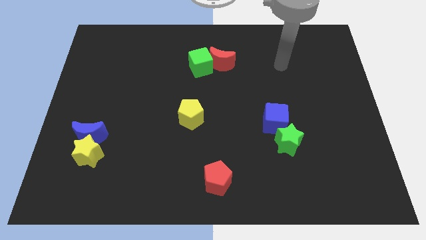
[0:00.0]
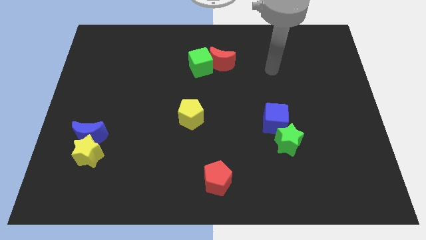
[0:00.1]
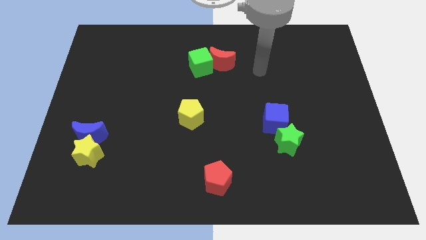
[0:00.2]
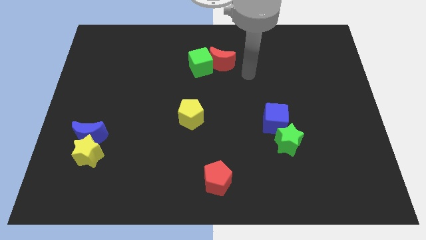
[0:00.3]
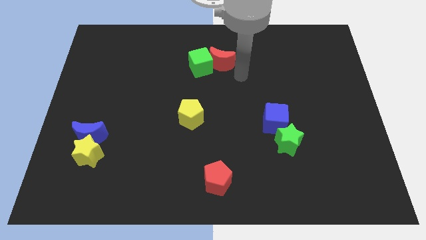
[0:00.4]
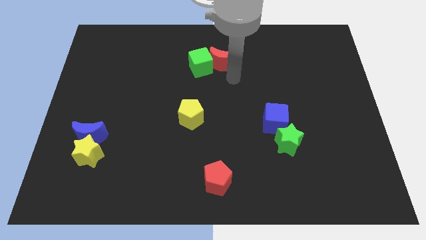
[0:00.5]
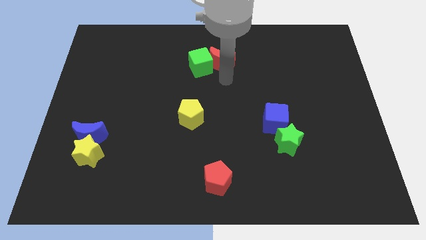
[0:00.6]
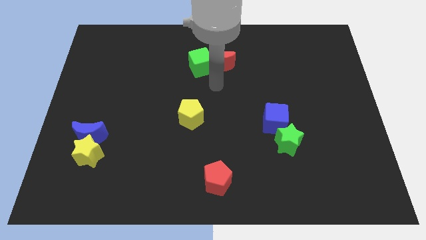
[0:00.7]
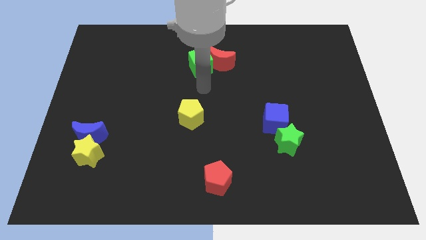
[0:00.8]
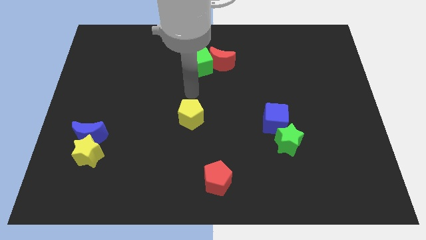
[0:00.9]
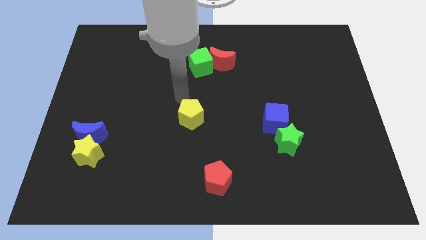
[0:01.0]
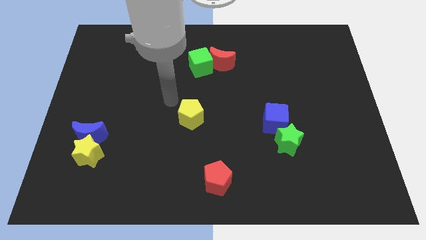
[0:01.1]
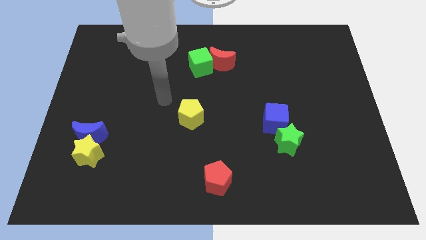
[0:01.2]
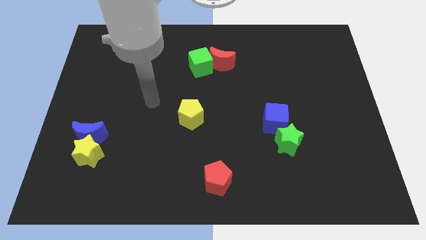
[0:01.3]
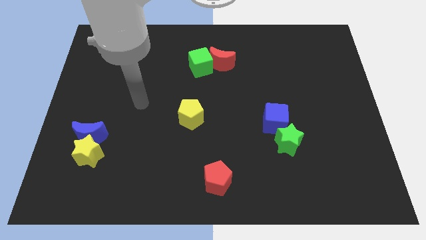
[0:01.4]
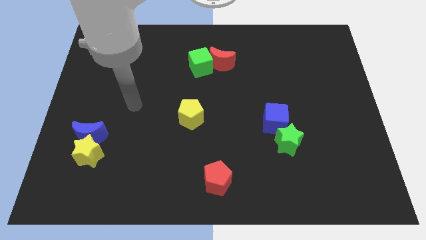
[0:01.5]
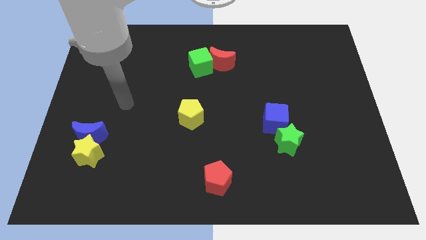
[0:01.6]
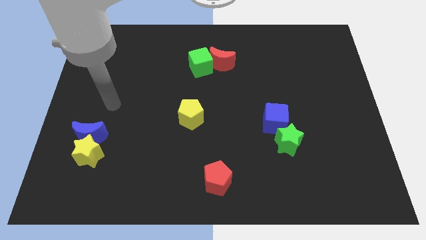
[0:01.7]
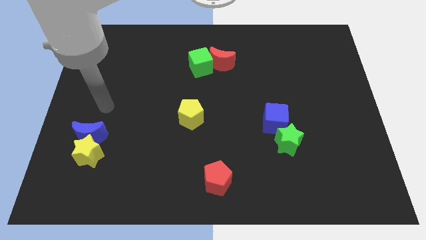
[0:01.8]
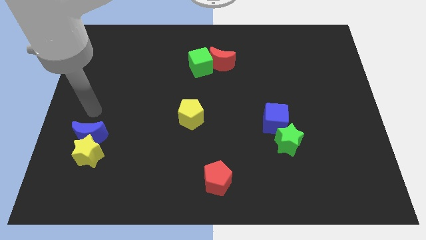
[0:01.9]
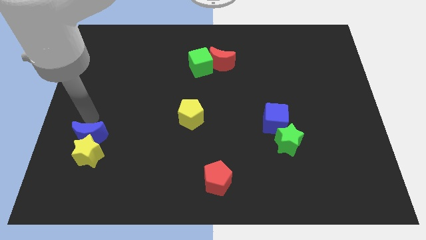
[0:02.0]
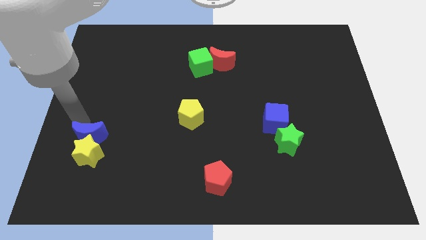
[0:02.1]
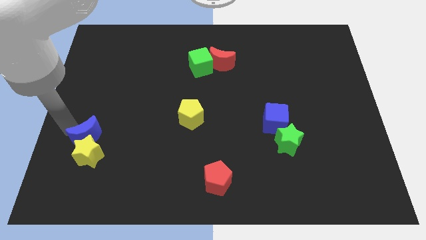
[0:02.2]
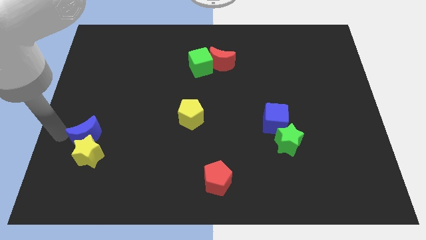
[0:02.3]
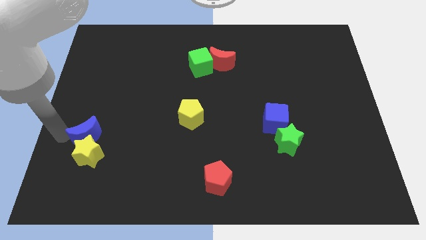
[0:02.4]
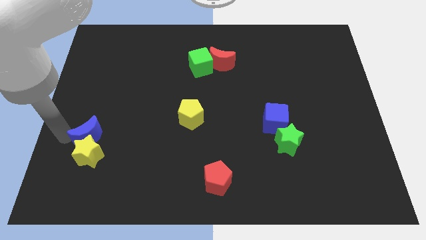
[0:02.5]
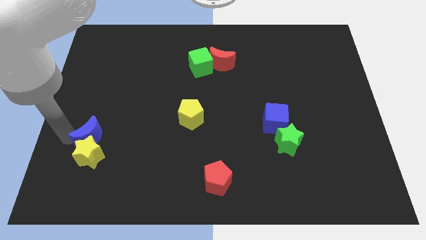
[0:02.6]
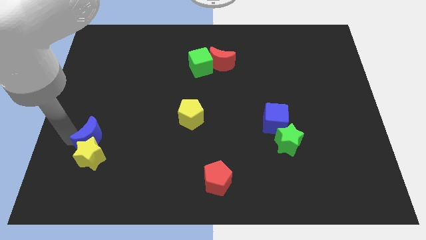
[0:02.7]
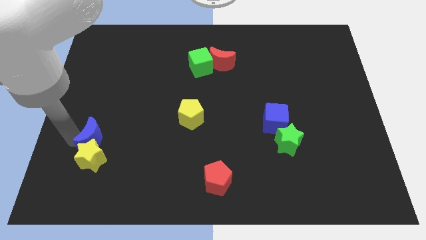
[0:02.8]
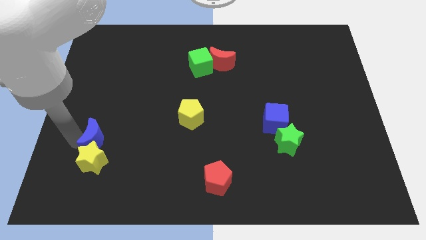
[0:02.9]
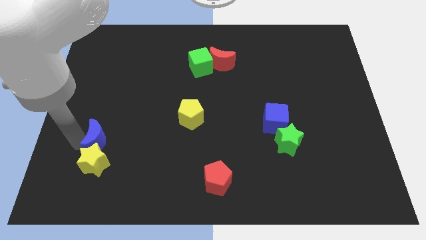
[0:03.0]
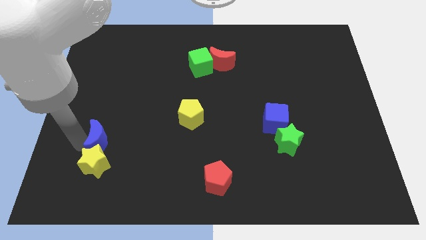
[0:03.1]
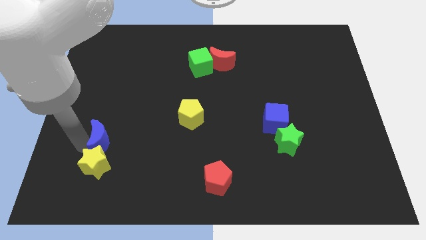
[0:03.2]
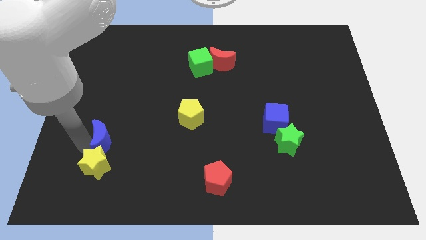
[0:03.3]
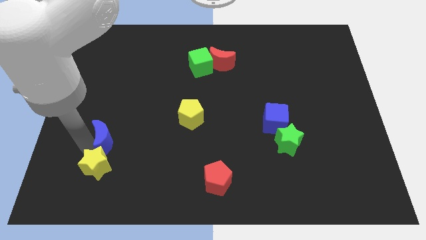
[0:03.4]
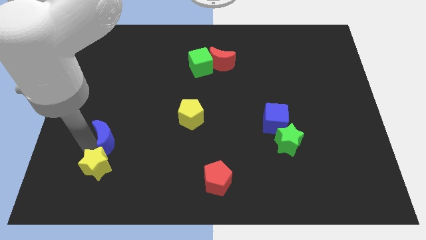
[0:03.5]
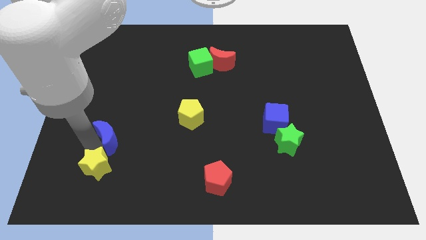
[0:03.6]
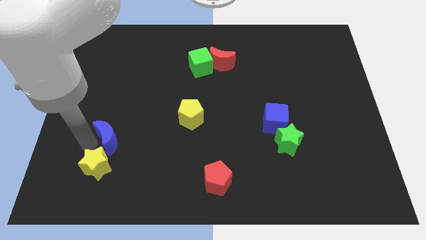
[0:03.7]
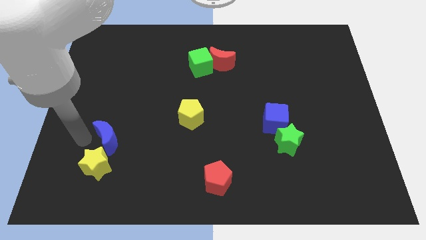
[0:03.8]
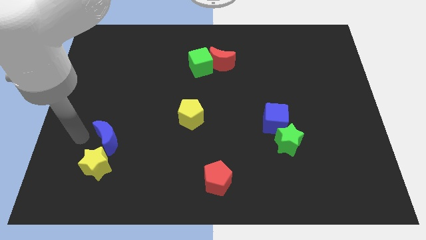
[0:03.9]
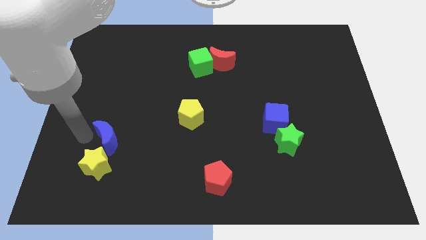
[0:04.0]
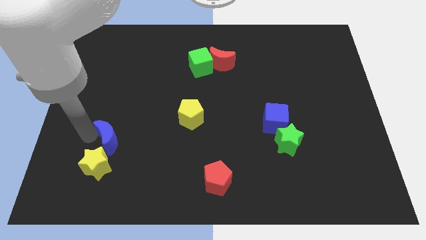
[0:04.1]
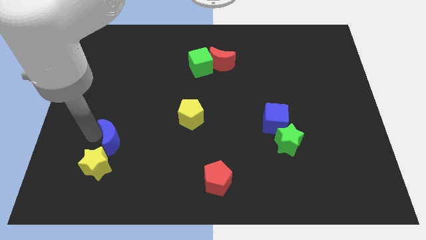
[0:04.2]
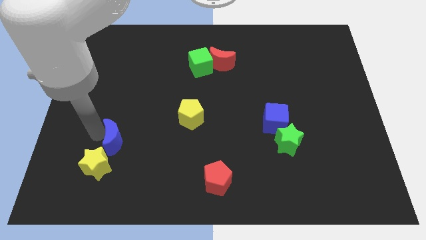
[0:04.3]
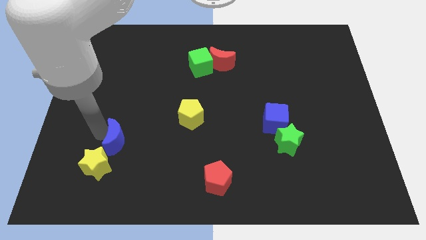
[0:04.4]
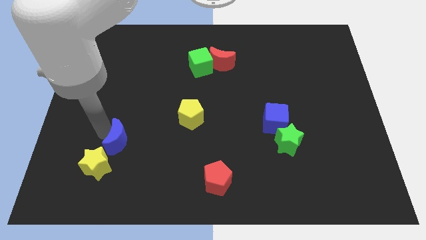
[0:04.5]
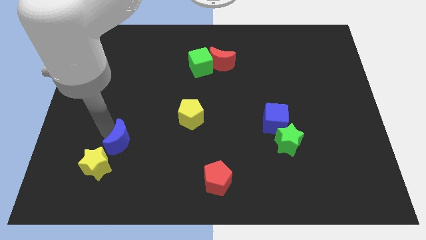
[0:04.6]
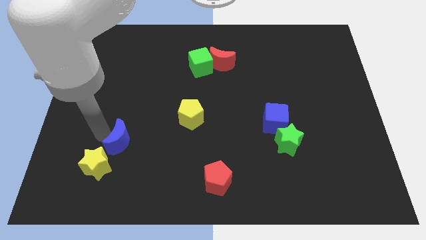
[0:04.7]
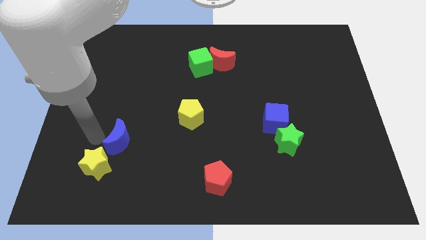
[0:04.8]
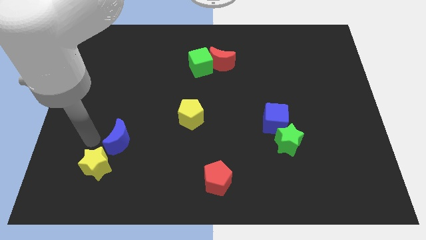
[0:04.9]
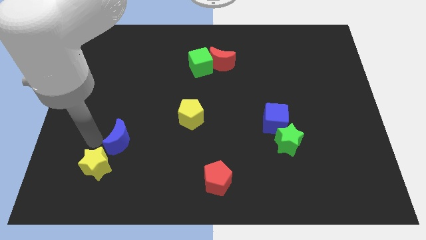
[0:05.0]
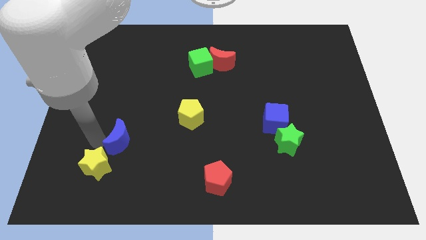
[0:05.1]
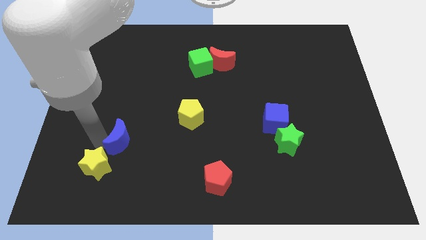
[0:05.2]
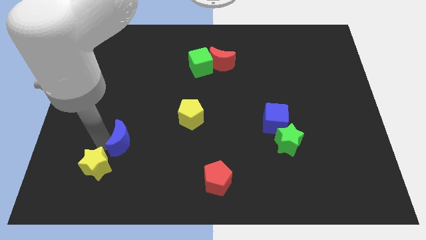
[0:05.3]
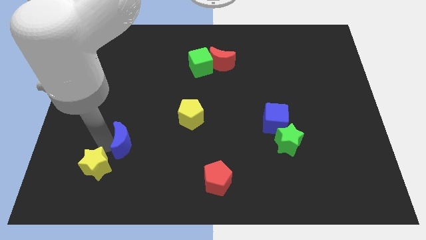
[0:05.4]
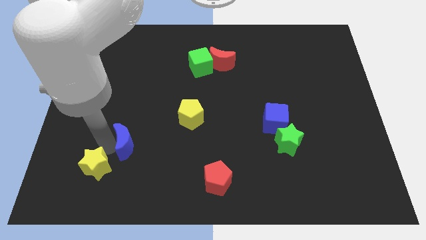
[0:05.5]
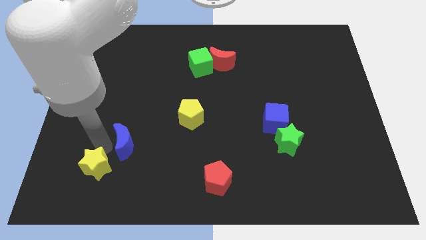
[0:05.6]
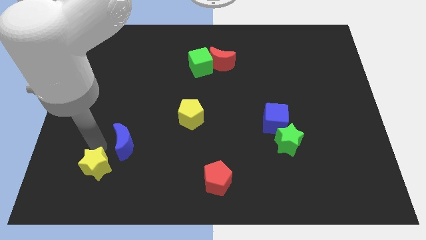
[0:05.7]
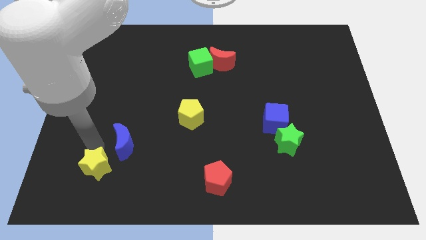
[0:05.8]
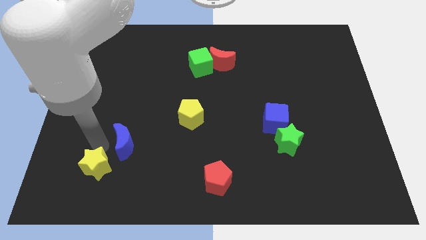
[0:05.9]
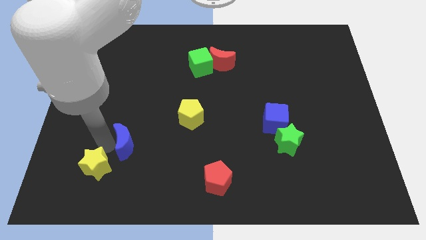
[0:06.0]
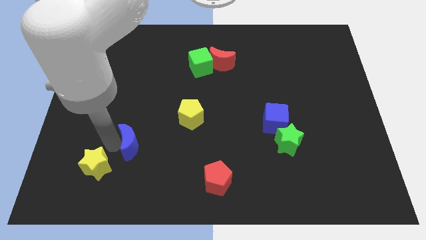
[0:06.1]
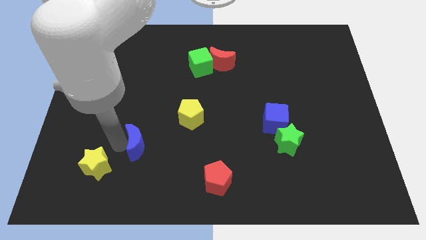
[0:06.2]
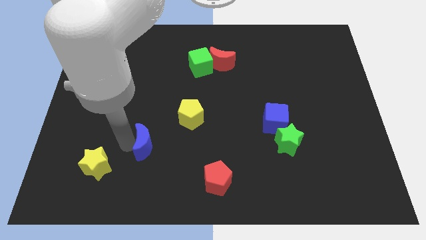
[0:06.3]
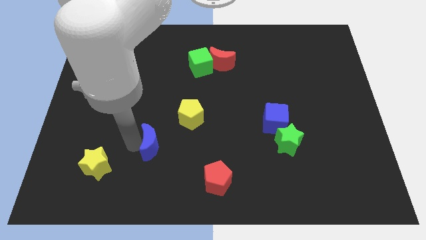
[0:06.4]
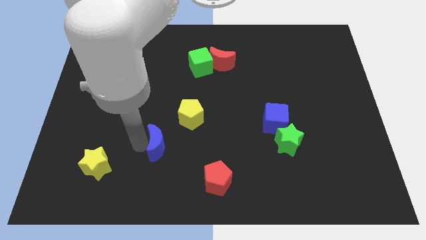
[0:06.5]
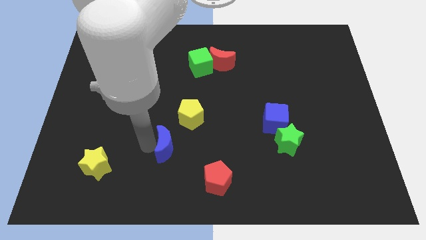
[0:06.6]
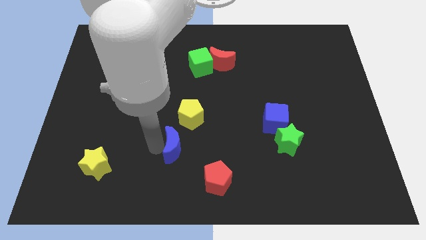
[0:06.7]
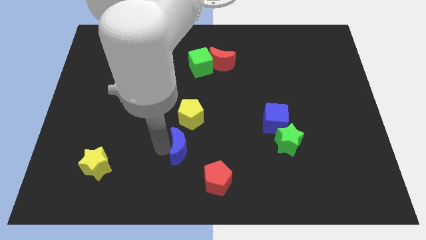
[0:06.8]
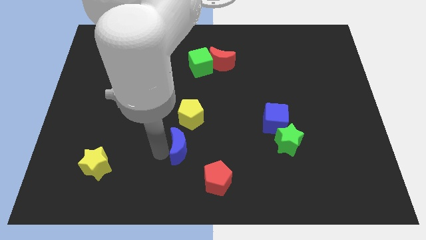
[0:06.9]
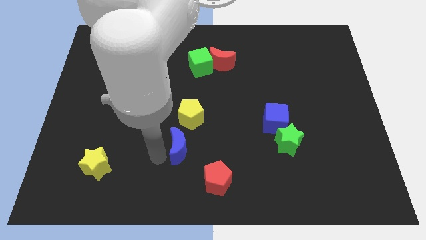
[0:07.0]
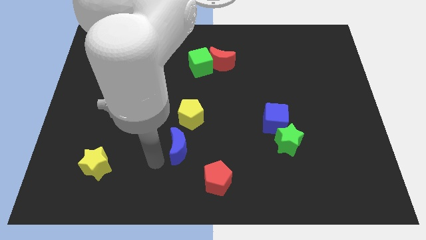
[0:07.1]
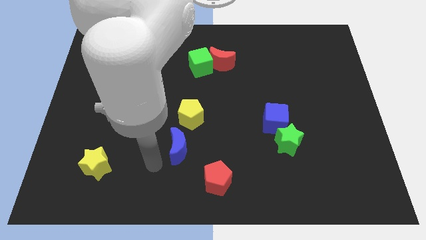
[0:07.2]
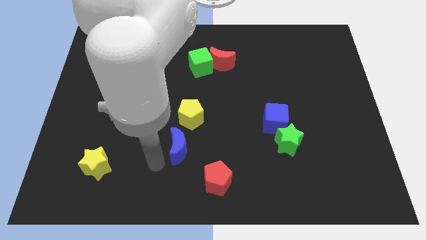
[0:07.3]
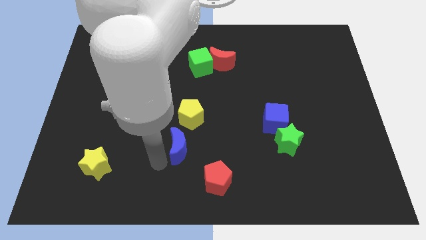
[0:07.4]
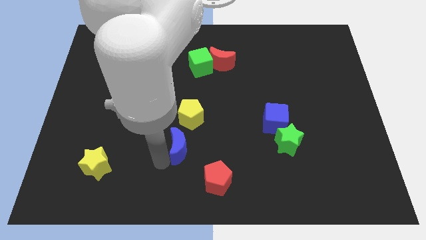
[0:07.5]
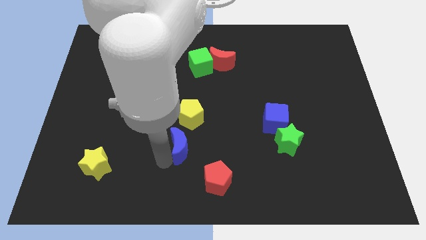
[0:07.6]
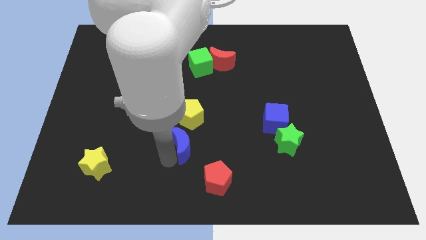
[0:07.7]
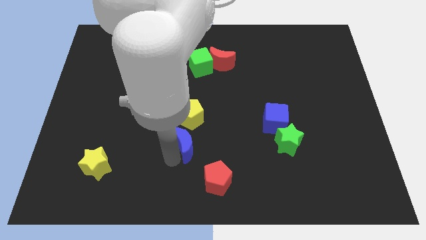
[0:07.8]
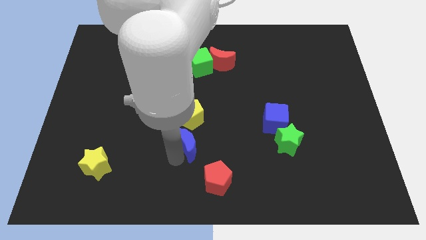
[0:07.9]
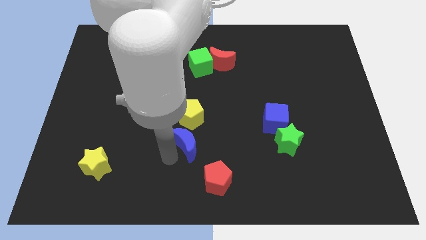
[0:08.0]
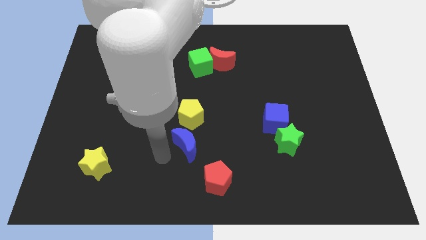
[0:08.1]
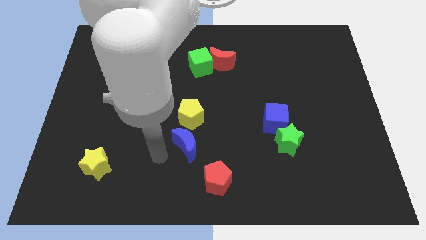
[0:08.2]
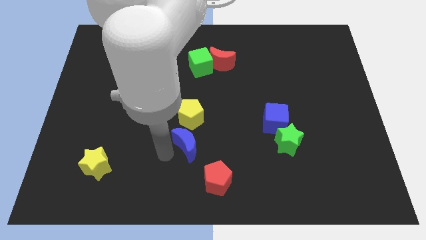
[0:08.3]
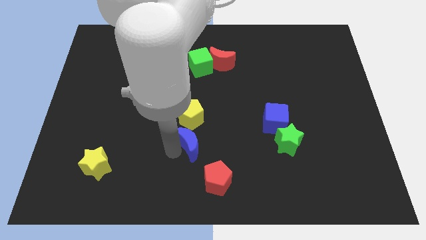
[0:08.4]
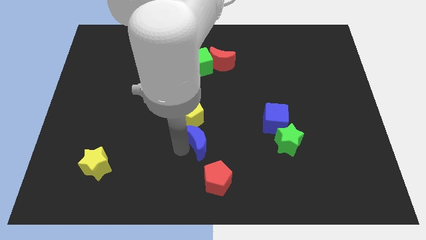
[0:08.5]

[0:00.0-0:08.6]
slide the blue moon to the bottom right of the yellow pentagon
